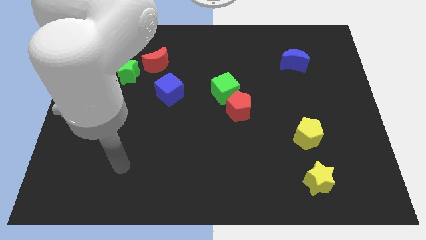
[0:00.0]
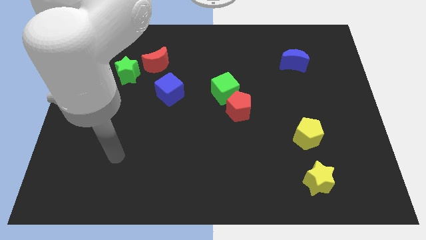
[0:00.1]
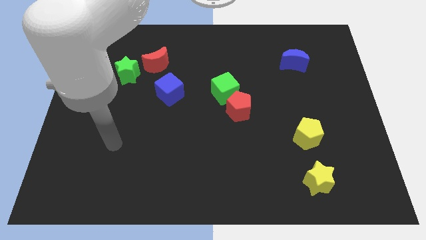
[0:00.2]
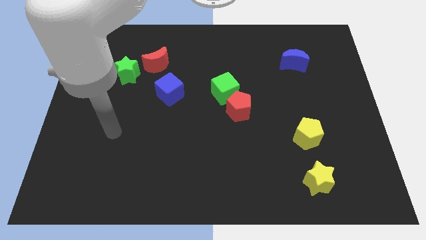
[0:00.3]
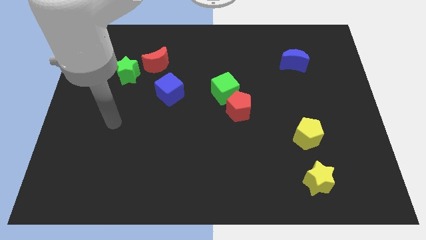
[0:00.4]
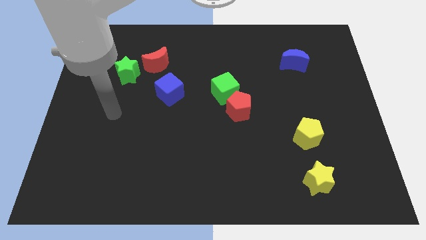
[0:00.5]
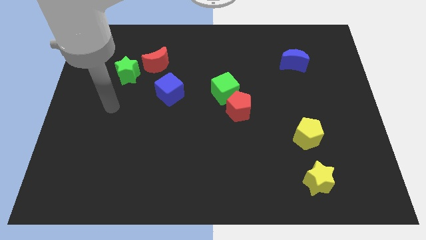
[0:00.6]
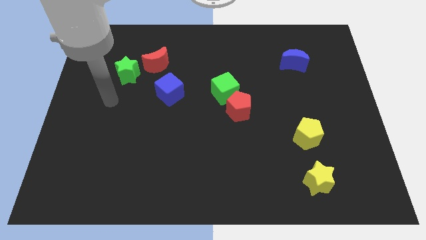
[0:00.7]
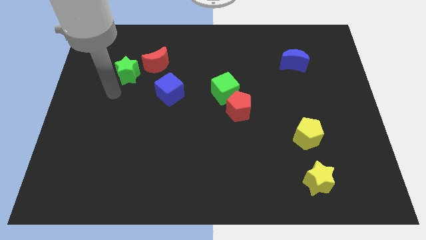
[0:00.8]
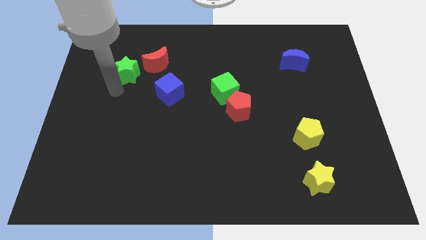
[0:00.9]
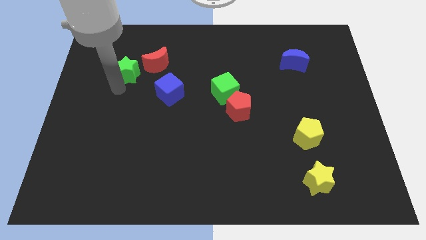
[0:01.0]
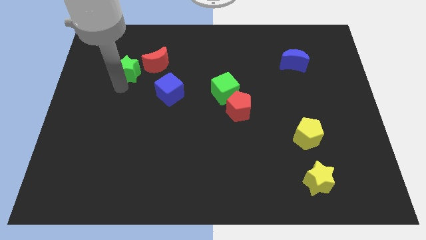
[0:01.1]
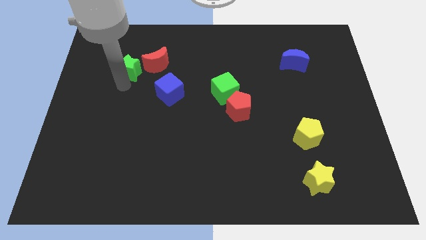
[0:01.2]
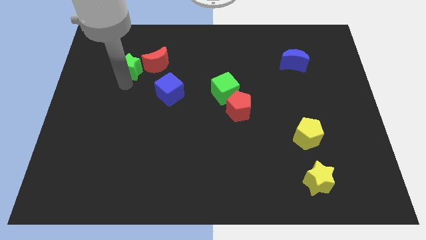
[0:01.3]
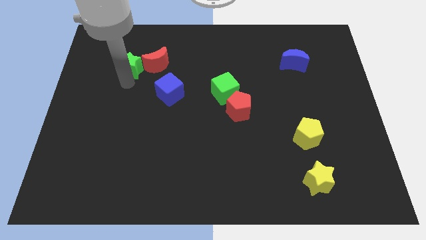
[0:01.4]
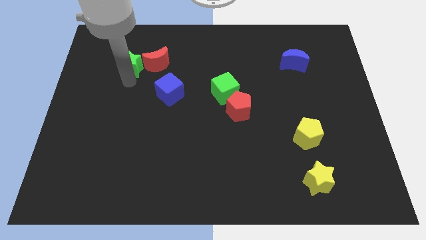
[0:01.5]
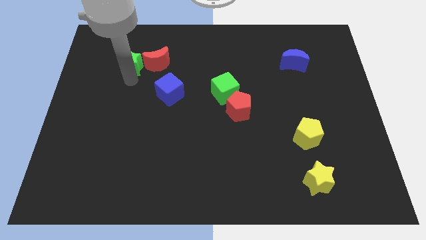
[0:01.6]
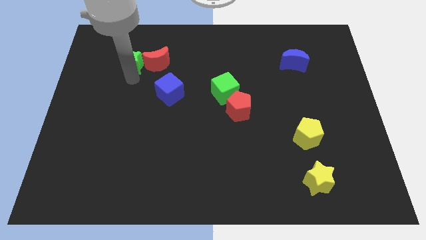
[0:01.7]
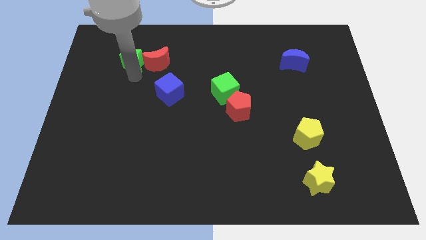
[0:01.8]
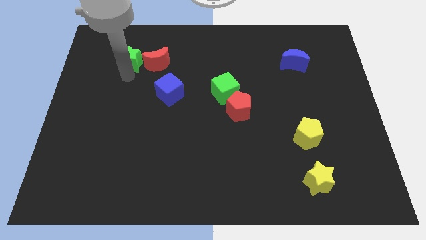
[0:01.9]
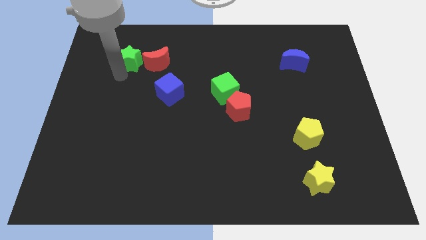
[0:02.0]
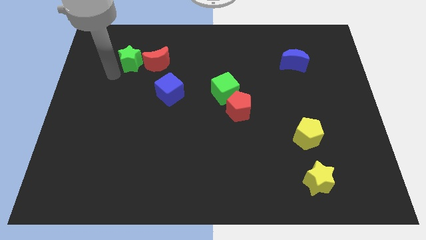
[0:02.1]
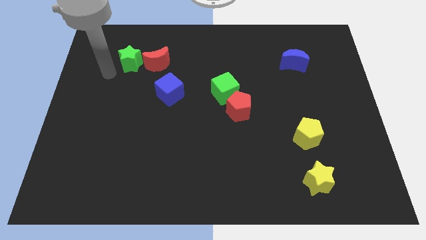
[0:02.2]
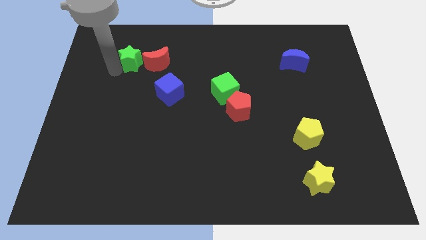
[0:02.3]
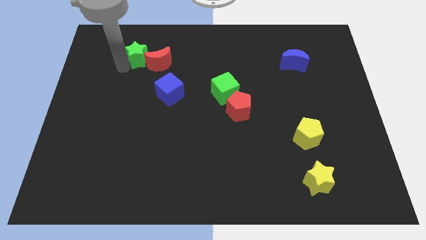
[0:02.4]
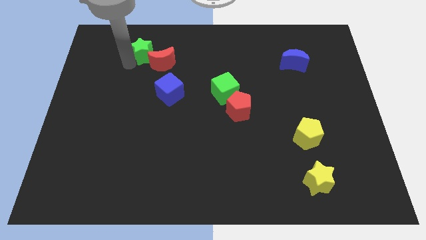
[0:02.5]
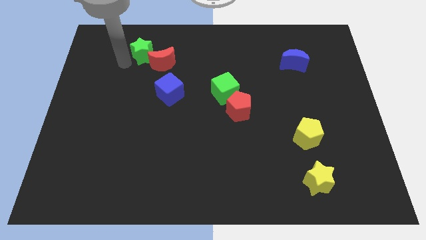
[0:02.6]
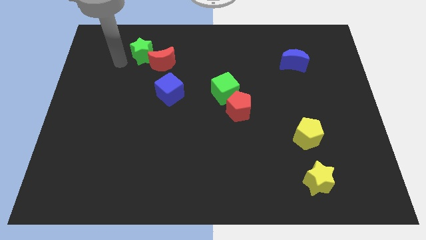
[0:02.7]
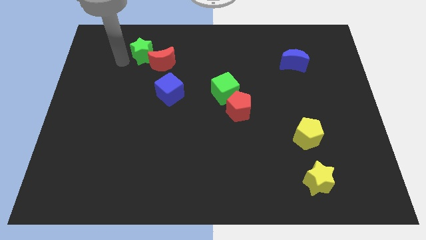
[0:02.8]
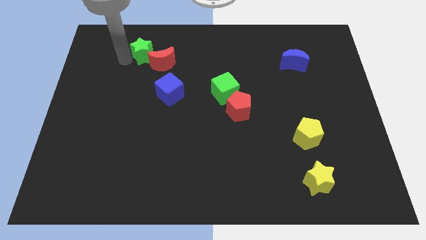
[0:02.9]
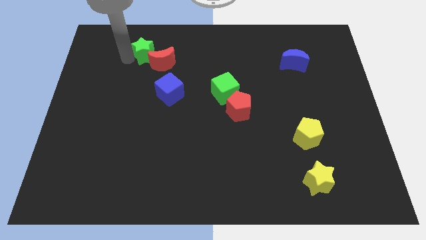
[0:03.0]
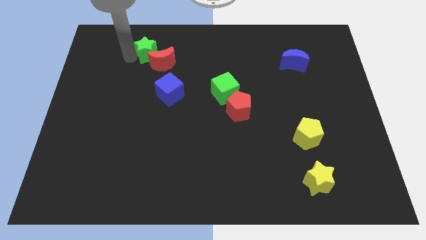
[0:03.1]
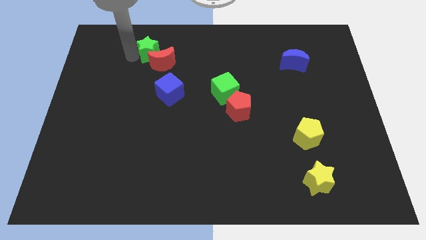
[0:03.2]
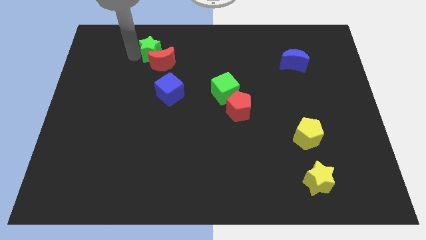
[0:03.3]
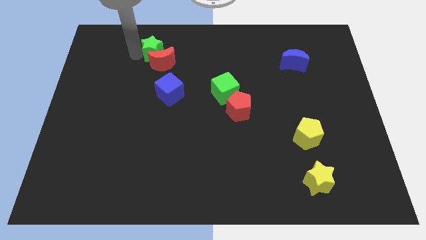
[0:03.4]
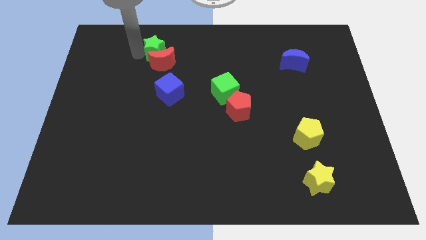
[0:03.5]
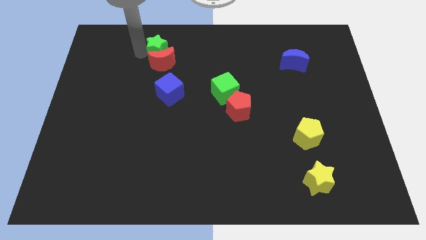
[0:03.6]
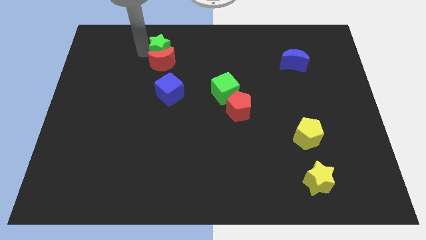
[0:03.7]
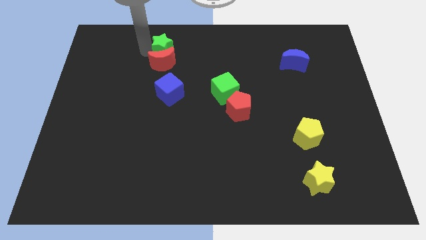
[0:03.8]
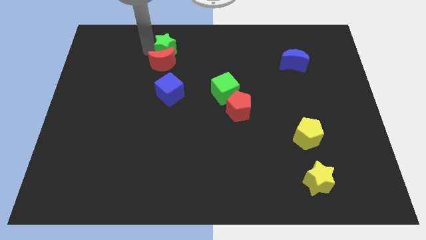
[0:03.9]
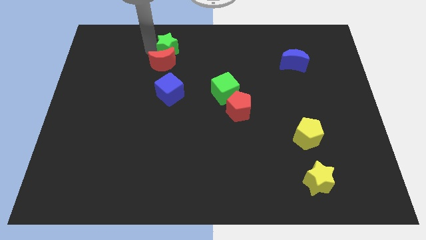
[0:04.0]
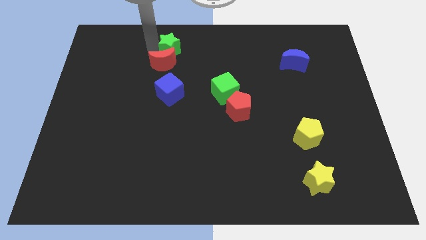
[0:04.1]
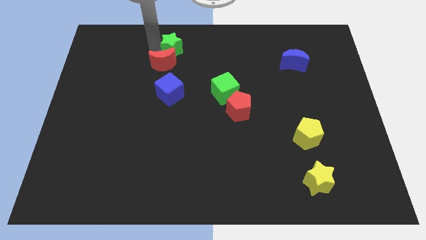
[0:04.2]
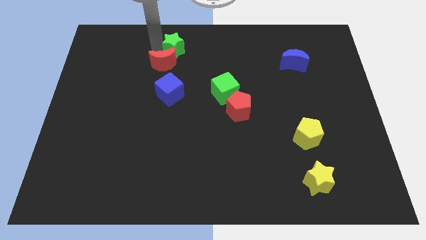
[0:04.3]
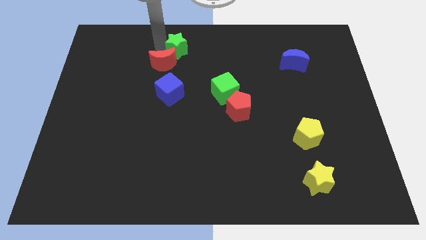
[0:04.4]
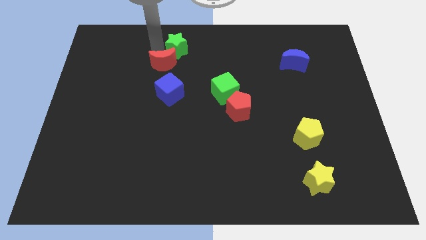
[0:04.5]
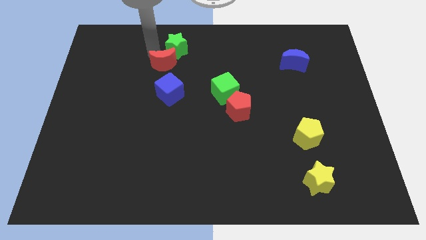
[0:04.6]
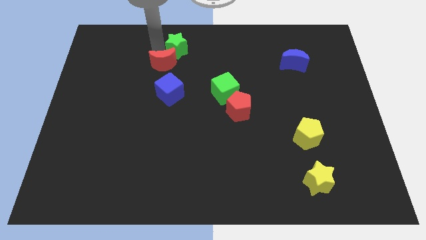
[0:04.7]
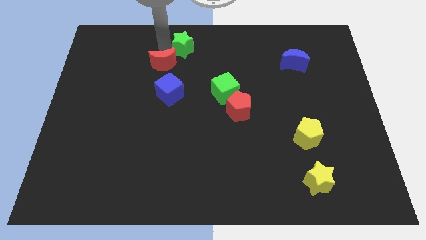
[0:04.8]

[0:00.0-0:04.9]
move the green star to the towards your base

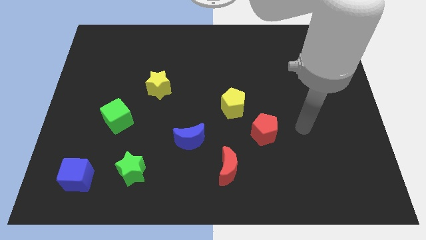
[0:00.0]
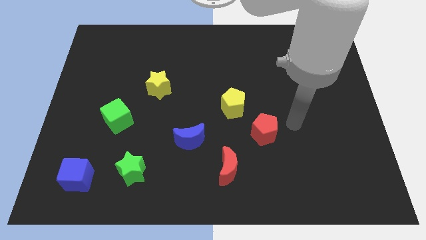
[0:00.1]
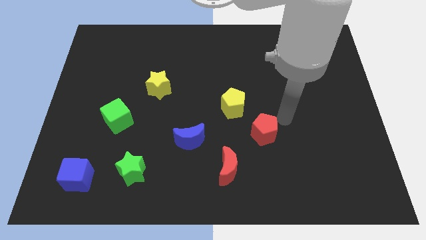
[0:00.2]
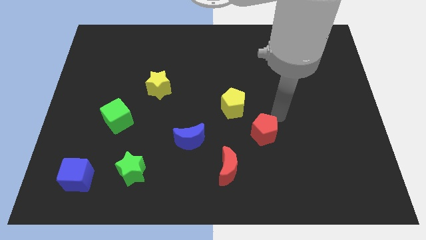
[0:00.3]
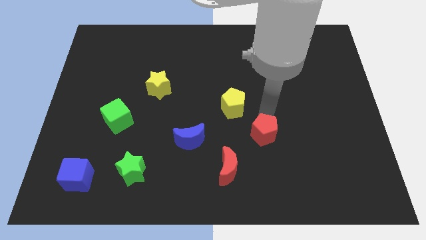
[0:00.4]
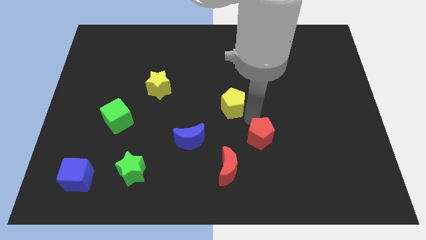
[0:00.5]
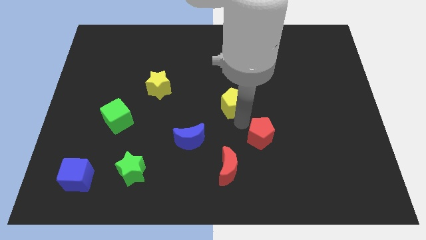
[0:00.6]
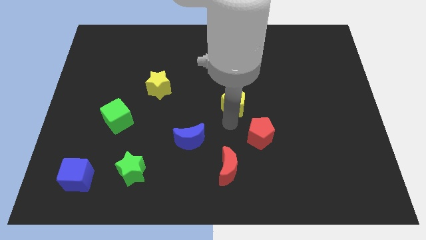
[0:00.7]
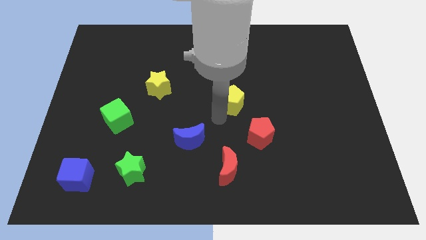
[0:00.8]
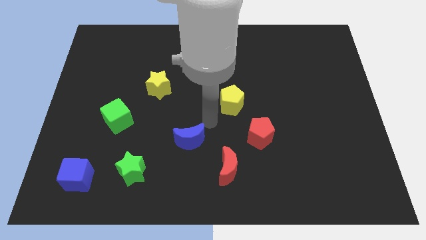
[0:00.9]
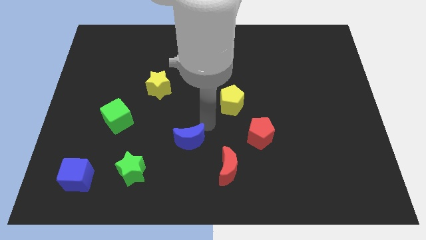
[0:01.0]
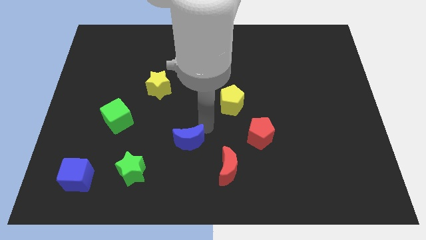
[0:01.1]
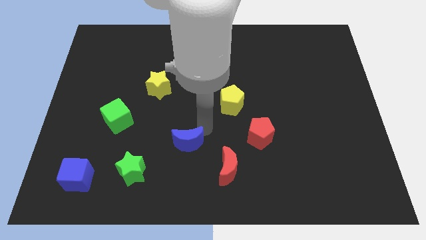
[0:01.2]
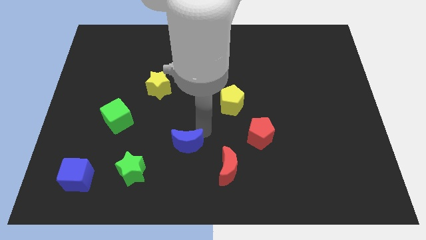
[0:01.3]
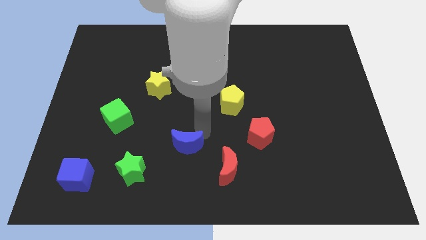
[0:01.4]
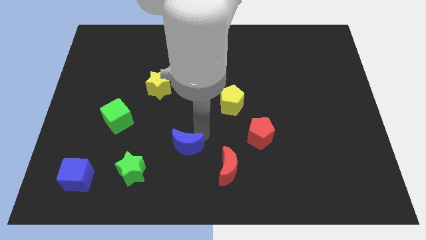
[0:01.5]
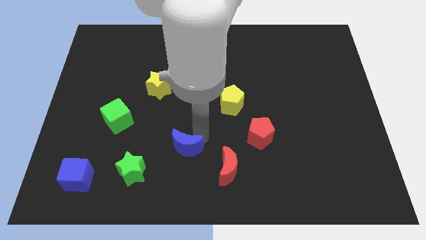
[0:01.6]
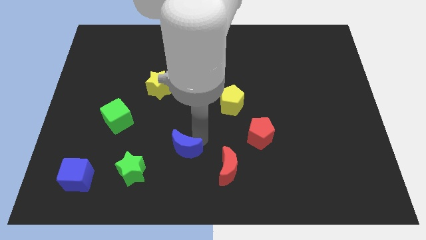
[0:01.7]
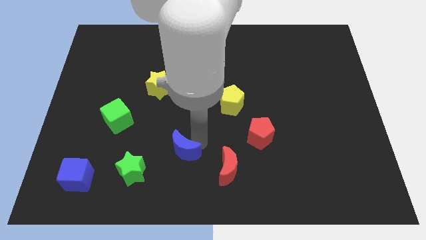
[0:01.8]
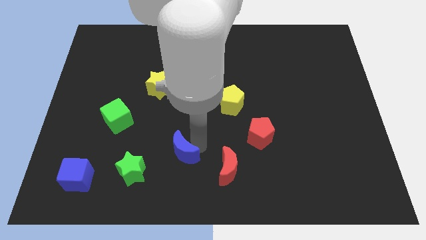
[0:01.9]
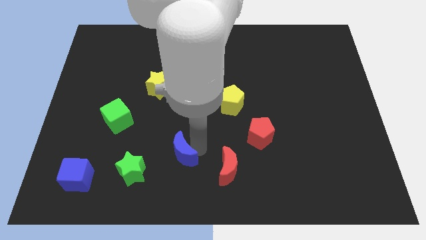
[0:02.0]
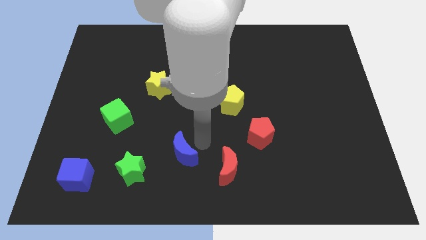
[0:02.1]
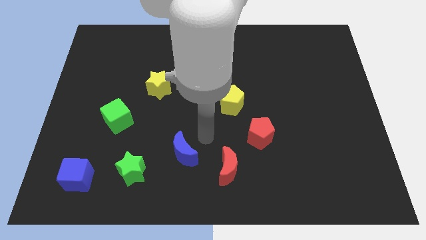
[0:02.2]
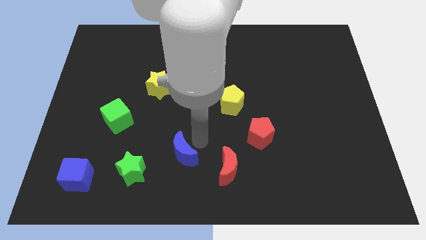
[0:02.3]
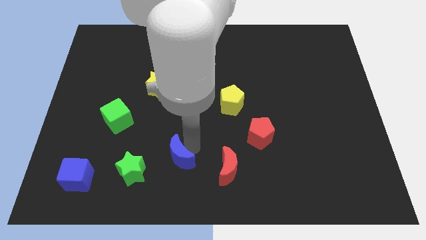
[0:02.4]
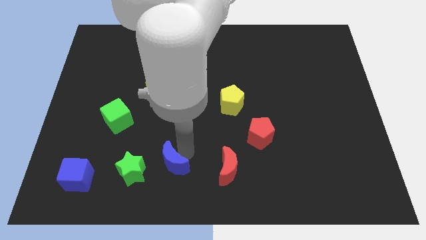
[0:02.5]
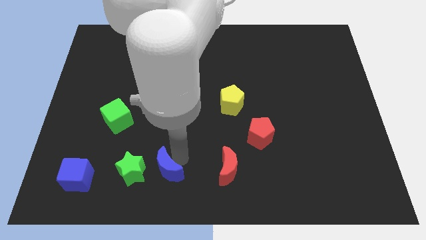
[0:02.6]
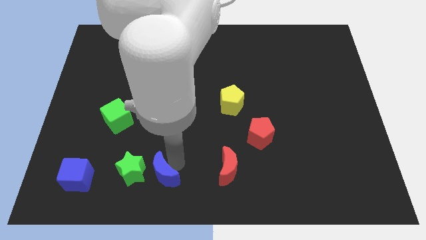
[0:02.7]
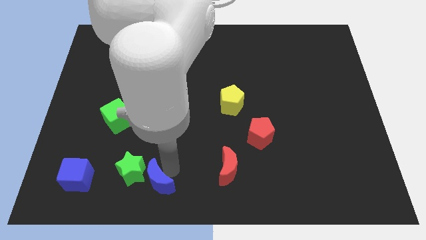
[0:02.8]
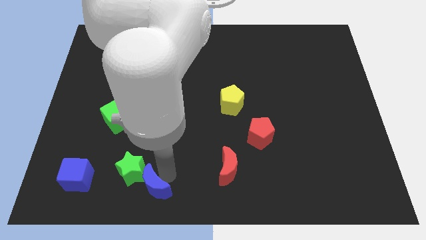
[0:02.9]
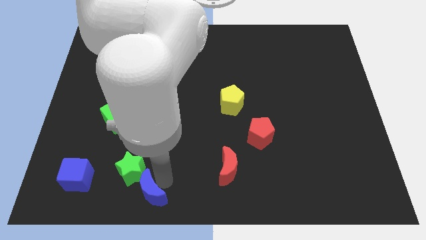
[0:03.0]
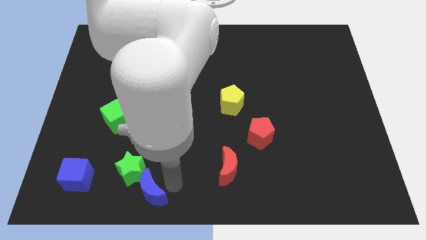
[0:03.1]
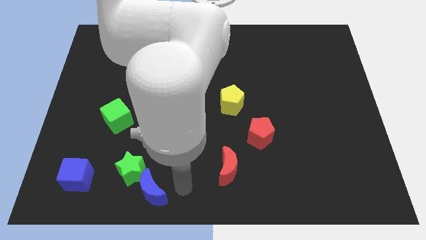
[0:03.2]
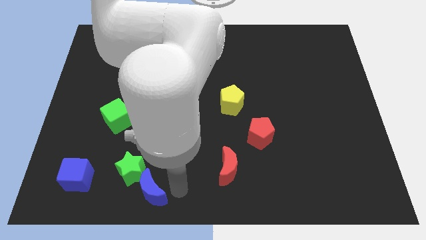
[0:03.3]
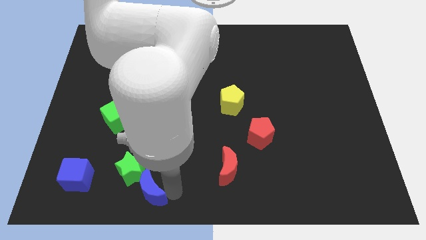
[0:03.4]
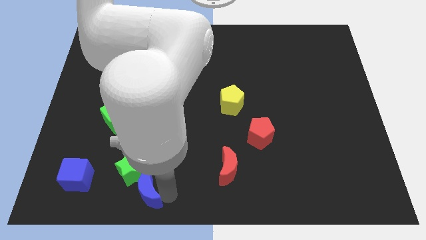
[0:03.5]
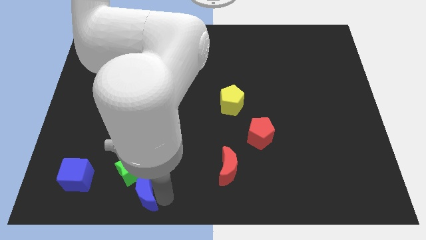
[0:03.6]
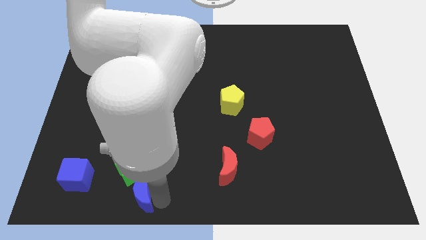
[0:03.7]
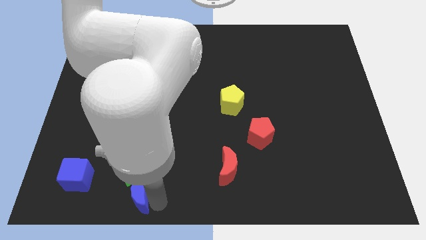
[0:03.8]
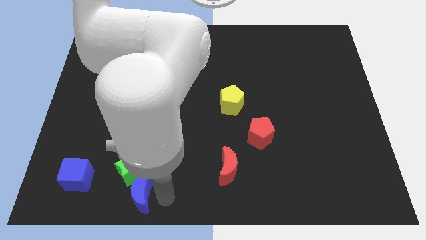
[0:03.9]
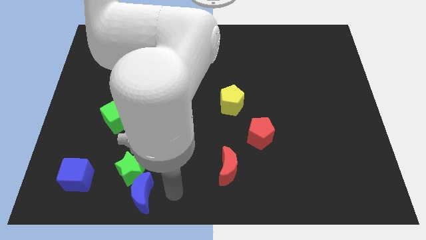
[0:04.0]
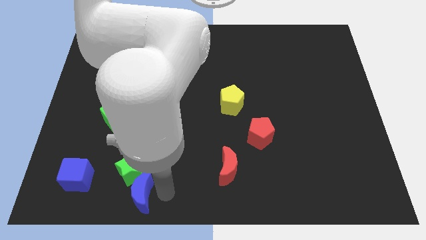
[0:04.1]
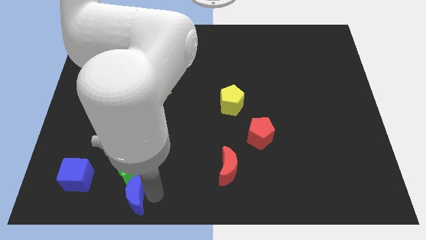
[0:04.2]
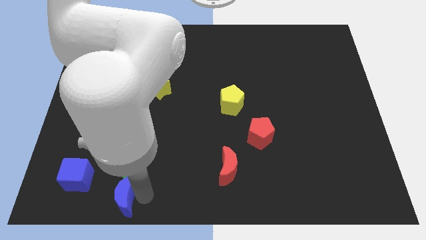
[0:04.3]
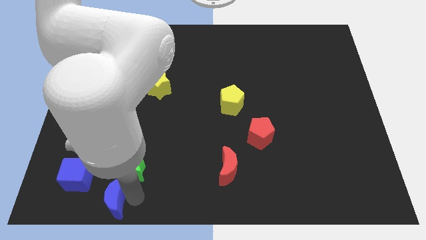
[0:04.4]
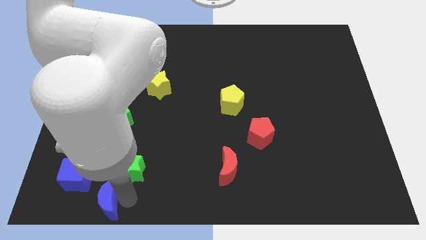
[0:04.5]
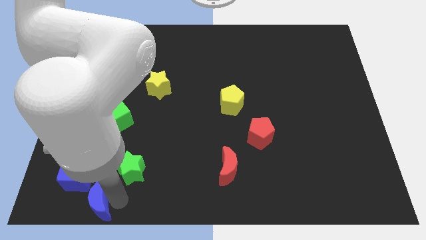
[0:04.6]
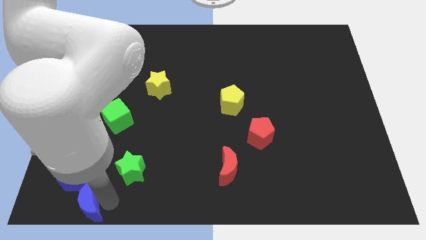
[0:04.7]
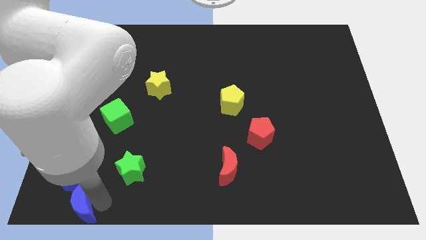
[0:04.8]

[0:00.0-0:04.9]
slide the blue moon to the lower left corner
